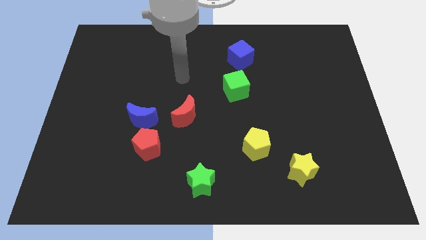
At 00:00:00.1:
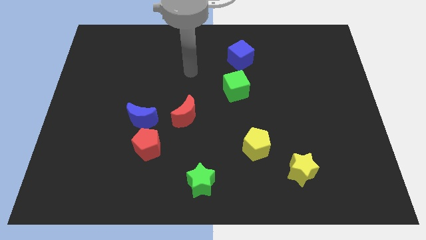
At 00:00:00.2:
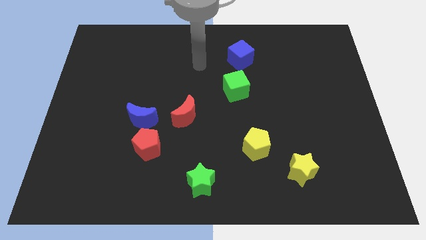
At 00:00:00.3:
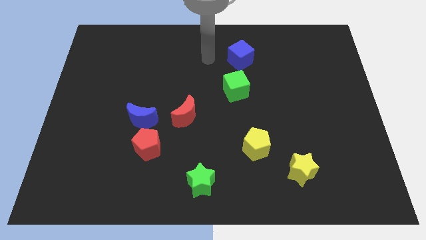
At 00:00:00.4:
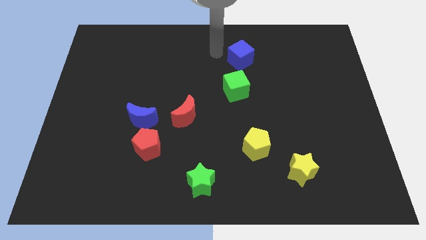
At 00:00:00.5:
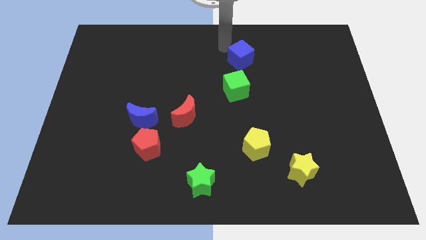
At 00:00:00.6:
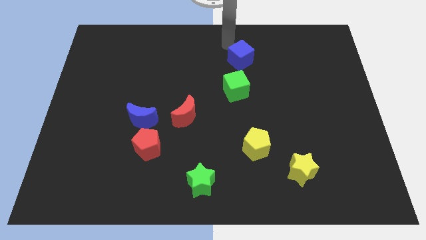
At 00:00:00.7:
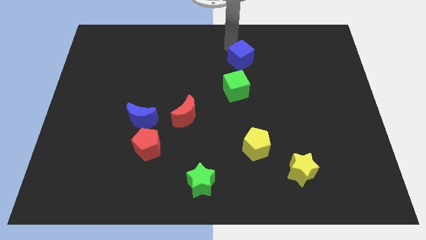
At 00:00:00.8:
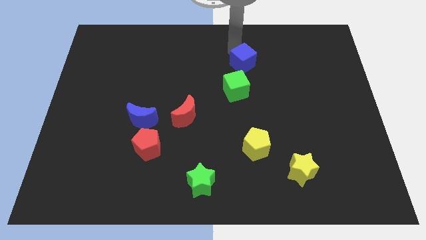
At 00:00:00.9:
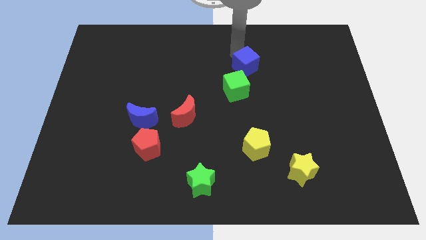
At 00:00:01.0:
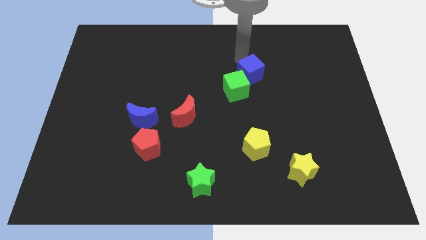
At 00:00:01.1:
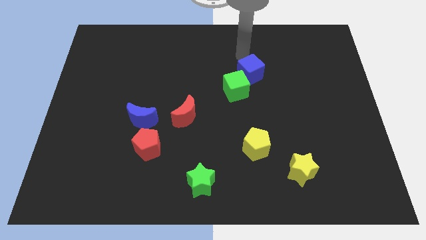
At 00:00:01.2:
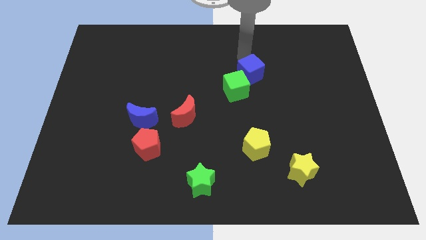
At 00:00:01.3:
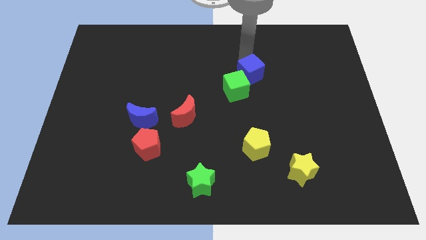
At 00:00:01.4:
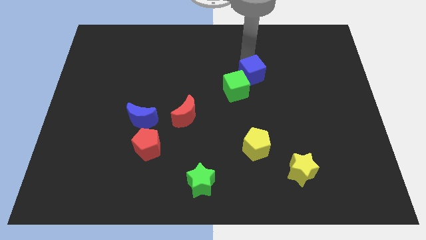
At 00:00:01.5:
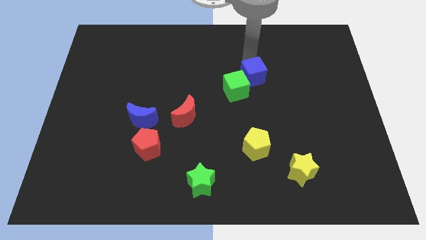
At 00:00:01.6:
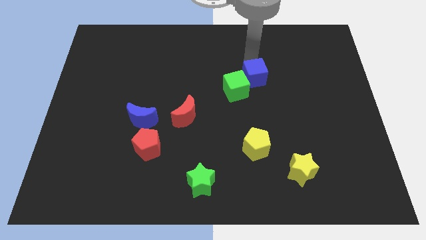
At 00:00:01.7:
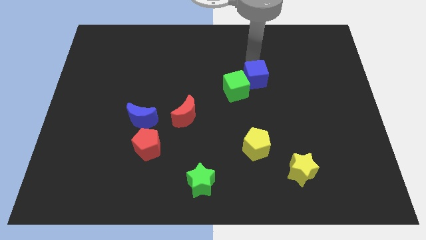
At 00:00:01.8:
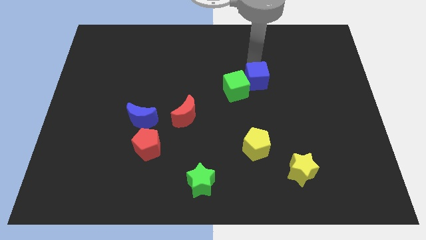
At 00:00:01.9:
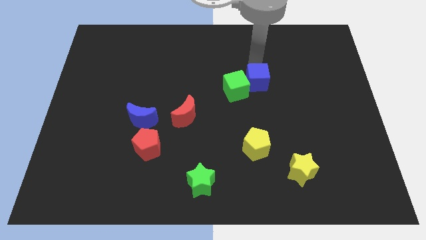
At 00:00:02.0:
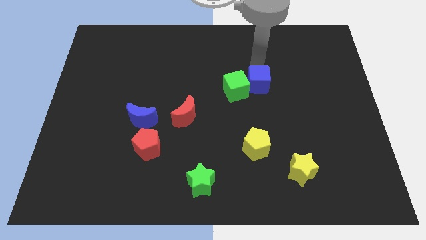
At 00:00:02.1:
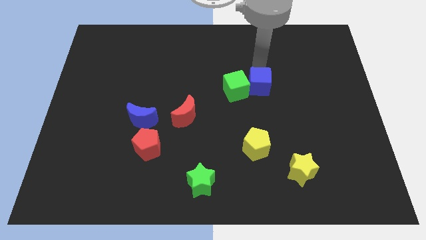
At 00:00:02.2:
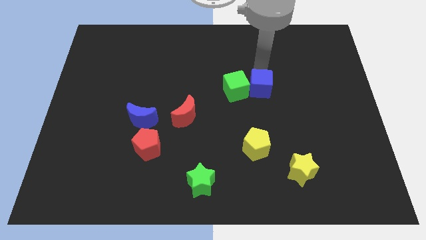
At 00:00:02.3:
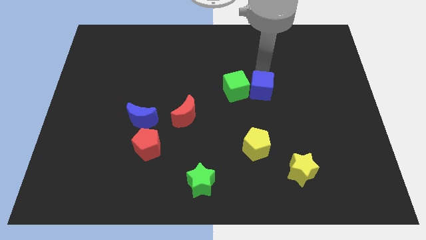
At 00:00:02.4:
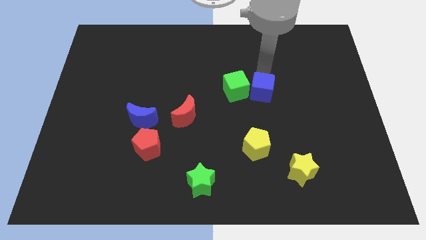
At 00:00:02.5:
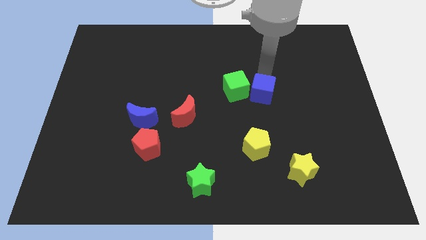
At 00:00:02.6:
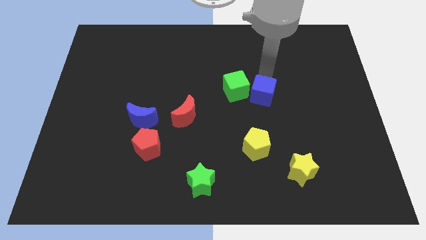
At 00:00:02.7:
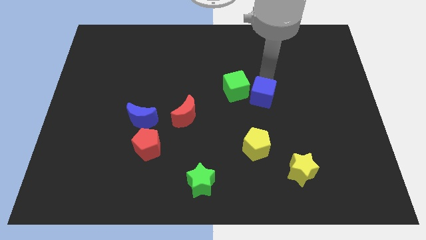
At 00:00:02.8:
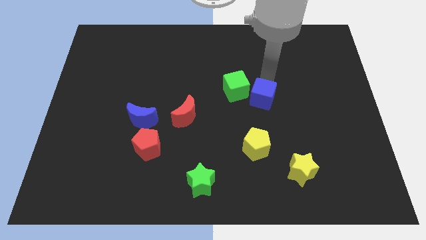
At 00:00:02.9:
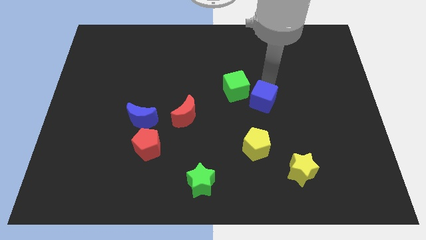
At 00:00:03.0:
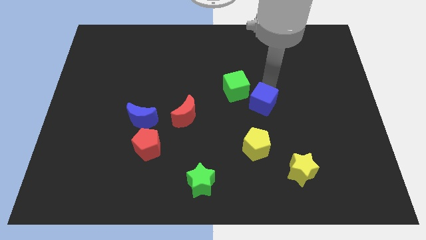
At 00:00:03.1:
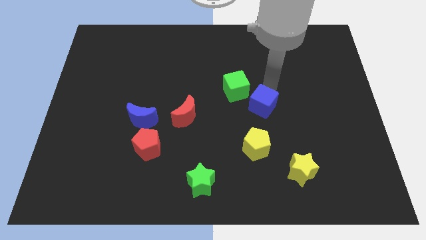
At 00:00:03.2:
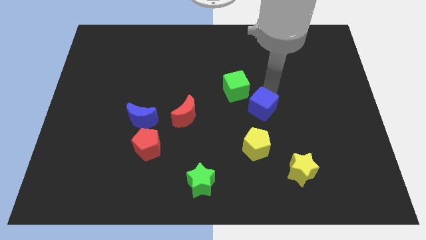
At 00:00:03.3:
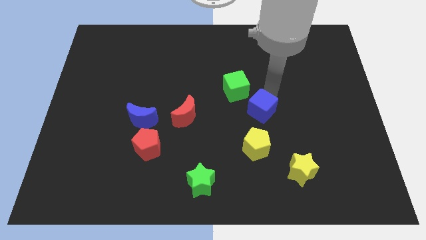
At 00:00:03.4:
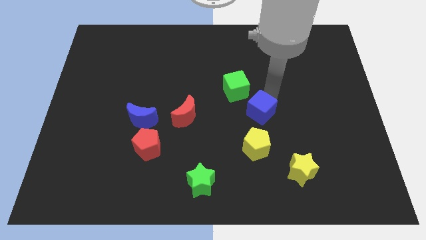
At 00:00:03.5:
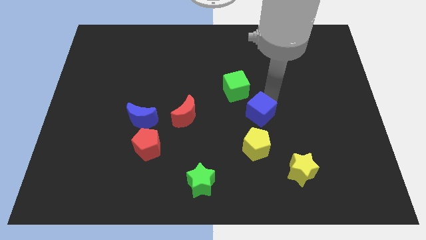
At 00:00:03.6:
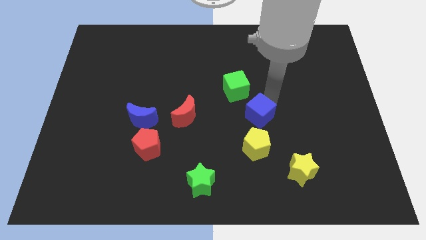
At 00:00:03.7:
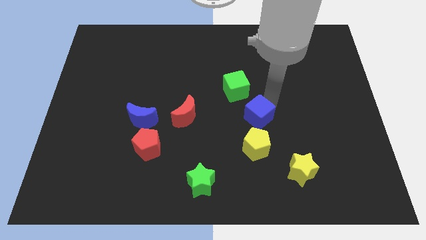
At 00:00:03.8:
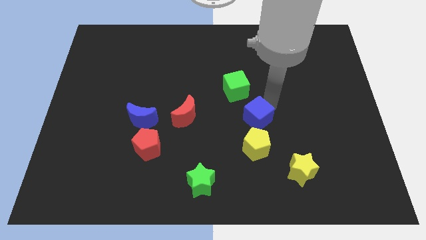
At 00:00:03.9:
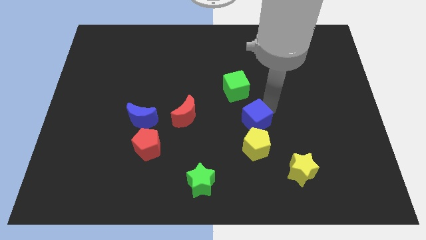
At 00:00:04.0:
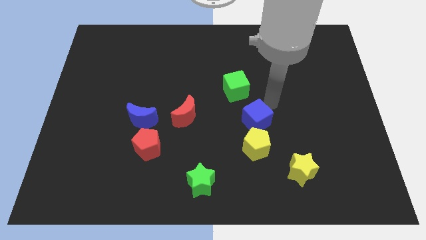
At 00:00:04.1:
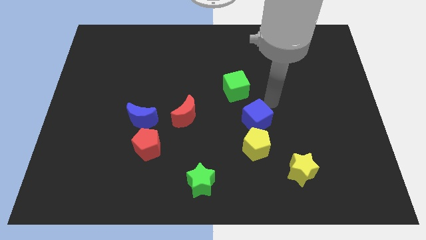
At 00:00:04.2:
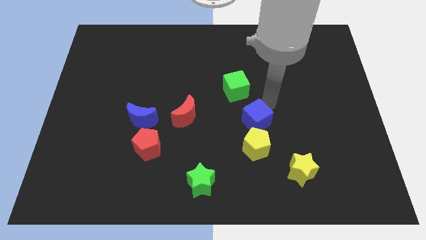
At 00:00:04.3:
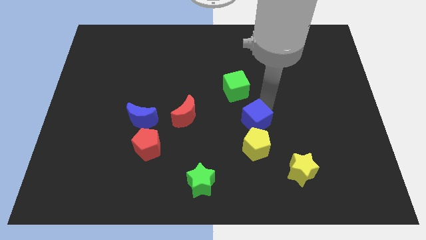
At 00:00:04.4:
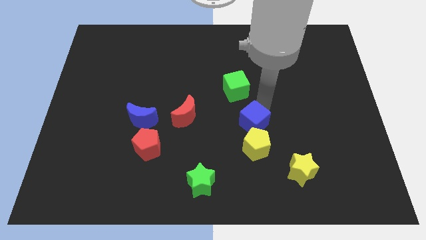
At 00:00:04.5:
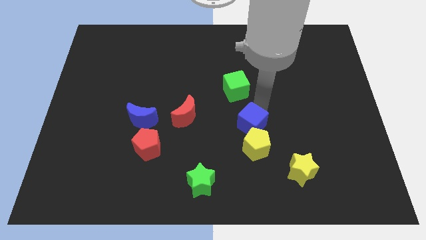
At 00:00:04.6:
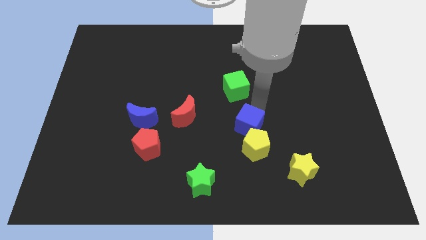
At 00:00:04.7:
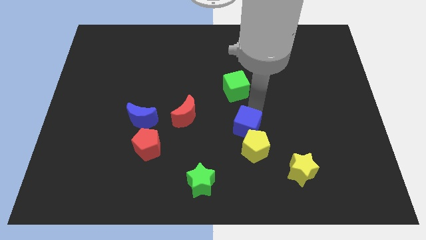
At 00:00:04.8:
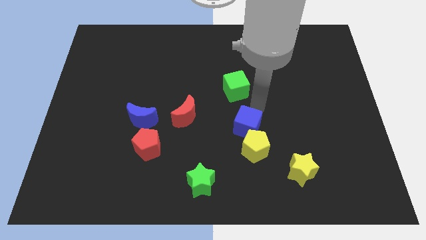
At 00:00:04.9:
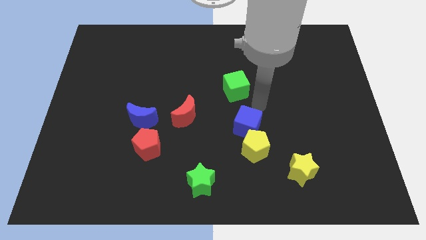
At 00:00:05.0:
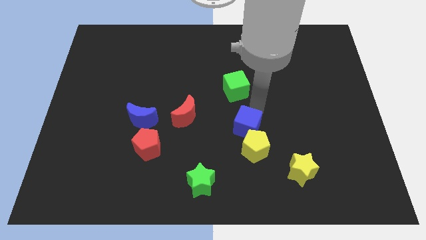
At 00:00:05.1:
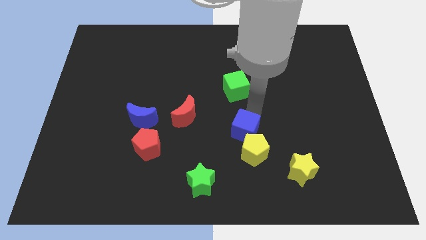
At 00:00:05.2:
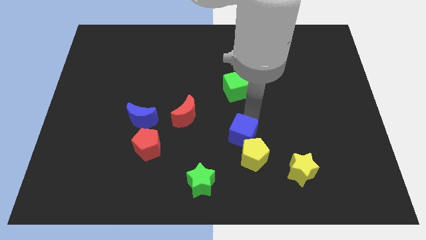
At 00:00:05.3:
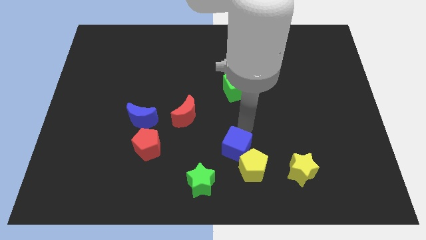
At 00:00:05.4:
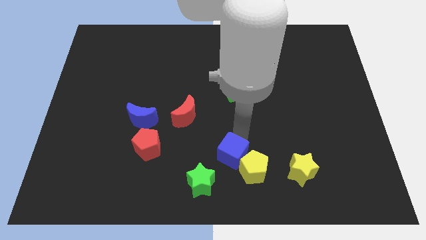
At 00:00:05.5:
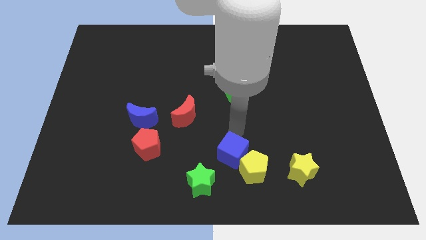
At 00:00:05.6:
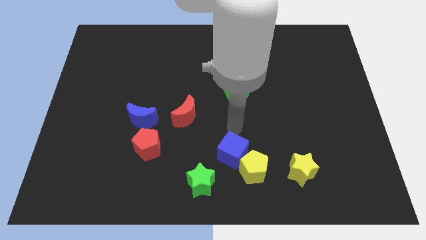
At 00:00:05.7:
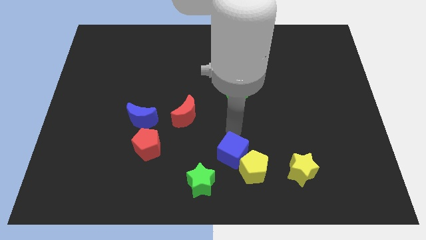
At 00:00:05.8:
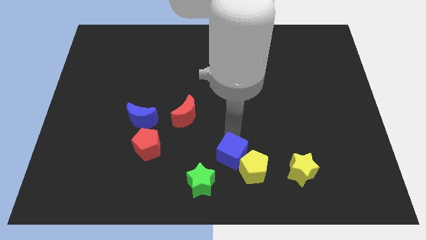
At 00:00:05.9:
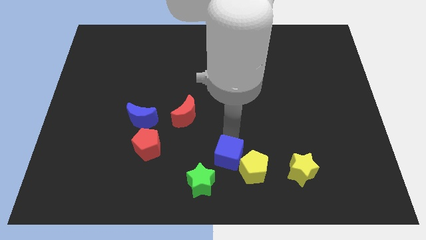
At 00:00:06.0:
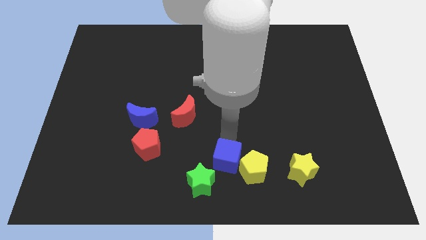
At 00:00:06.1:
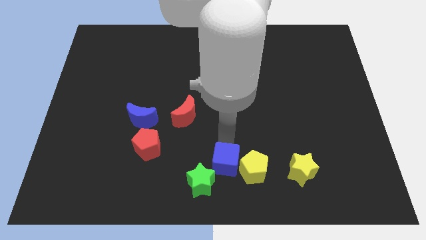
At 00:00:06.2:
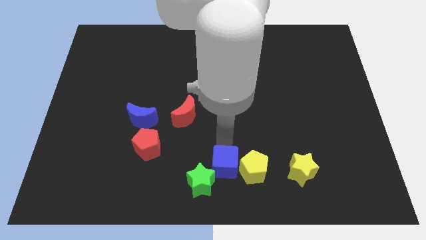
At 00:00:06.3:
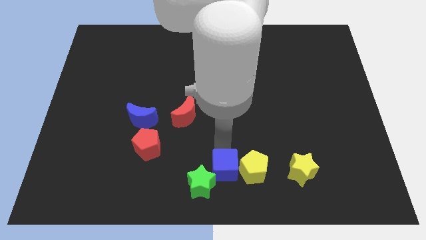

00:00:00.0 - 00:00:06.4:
put the blue cube to the bottom left side of the yellow pentagon

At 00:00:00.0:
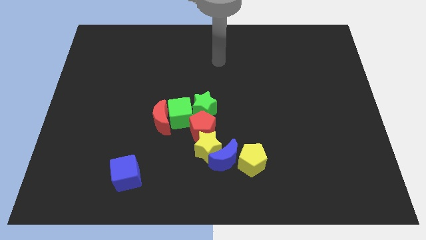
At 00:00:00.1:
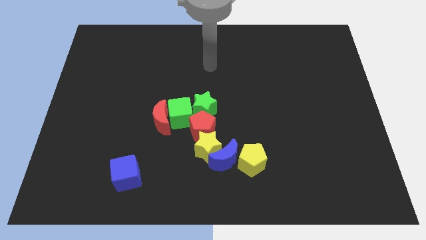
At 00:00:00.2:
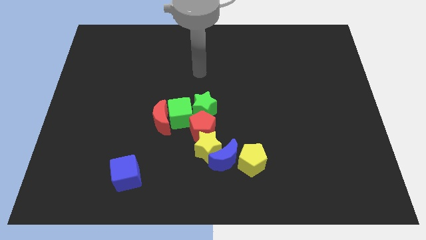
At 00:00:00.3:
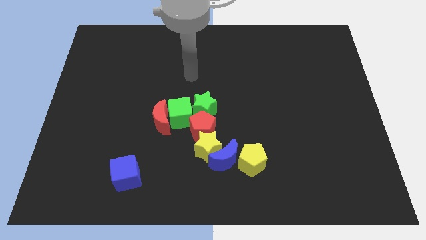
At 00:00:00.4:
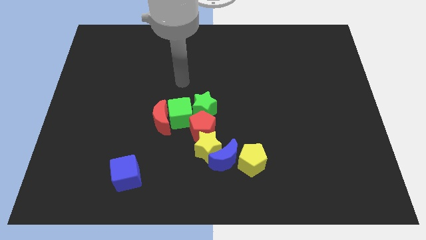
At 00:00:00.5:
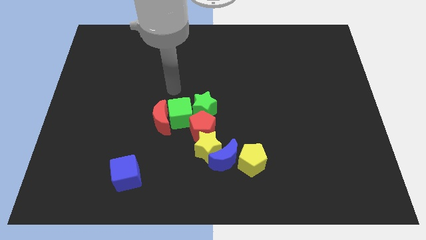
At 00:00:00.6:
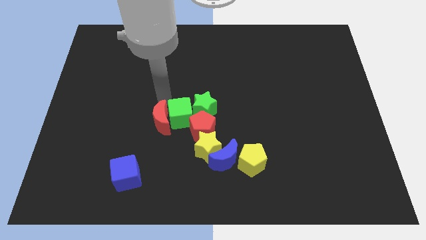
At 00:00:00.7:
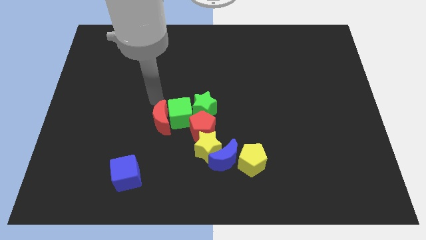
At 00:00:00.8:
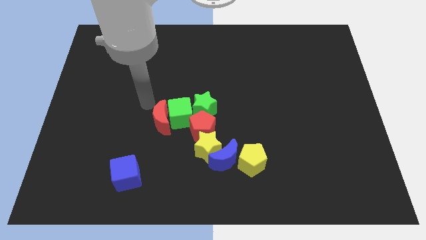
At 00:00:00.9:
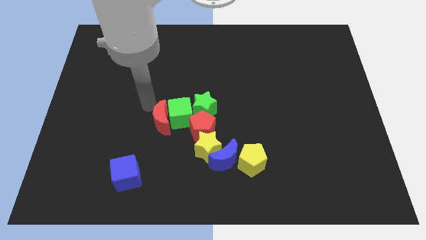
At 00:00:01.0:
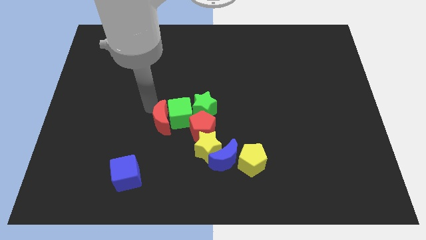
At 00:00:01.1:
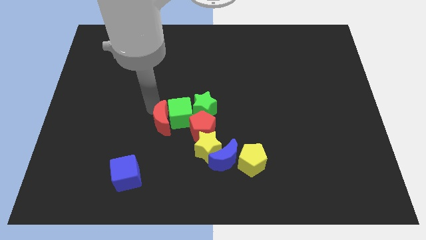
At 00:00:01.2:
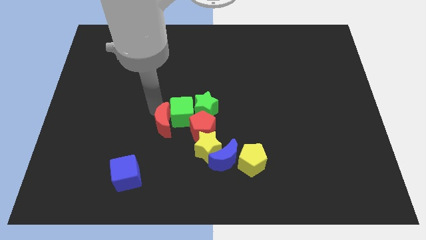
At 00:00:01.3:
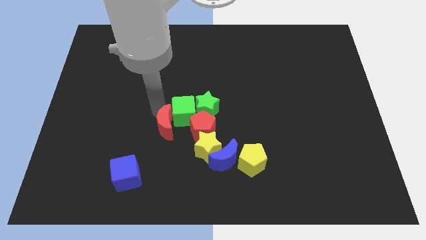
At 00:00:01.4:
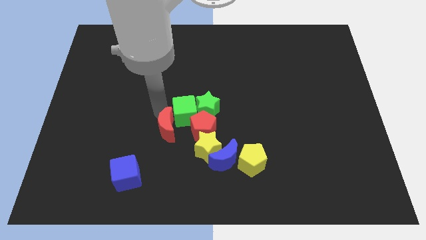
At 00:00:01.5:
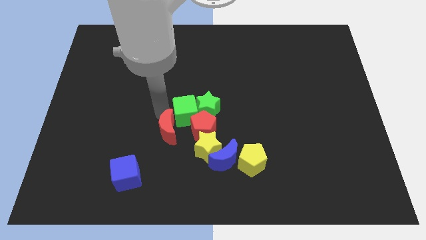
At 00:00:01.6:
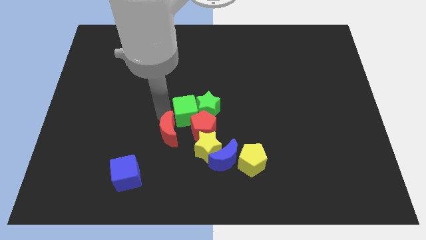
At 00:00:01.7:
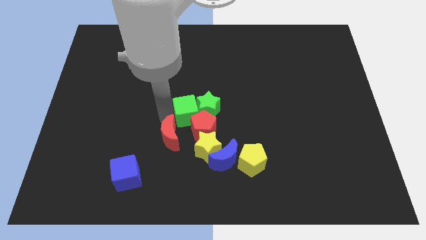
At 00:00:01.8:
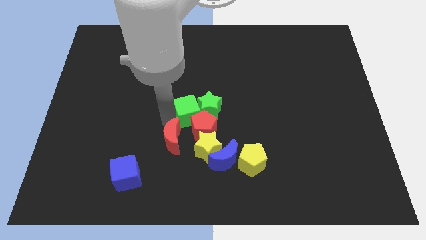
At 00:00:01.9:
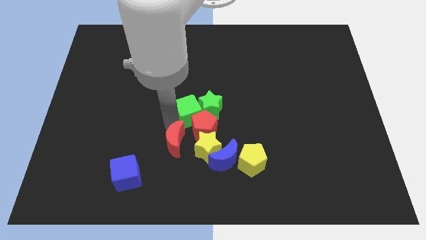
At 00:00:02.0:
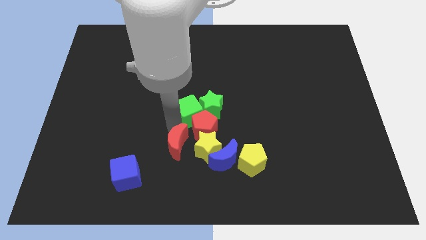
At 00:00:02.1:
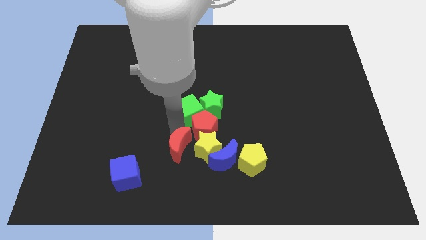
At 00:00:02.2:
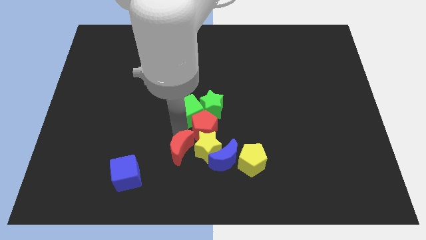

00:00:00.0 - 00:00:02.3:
move the red moon below the red pentagon
